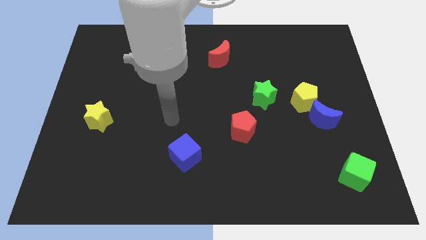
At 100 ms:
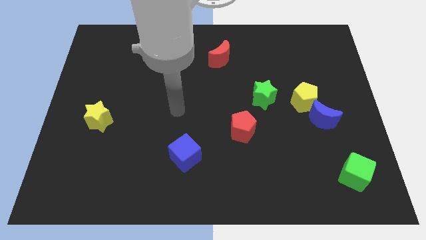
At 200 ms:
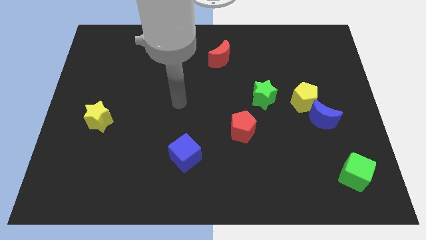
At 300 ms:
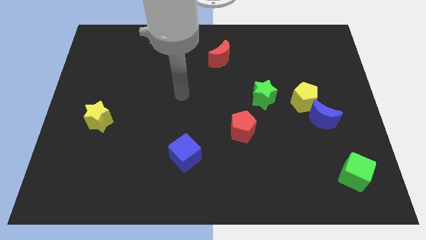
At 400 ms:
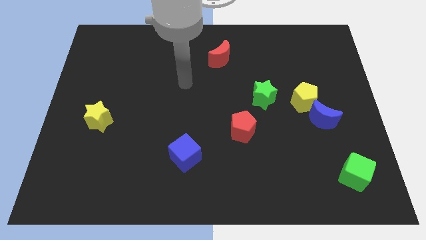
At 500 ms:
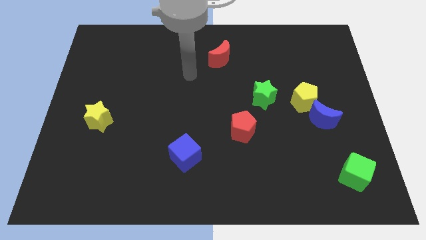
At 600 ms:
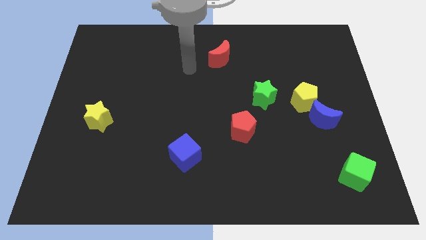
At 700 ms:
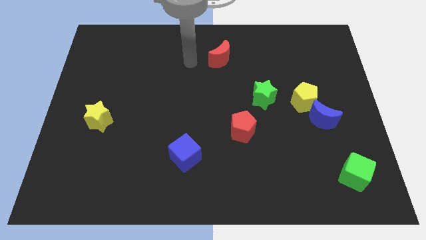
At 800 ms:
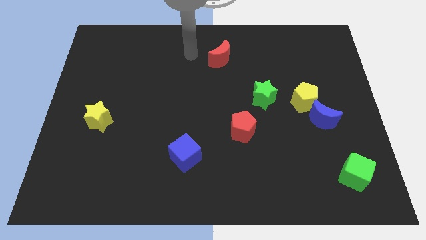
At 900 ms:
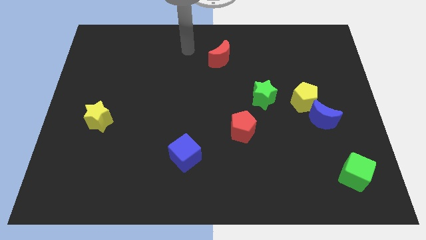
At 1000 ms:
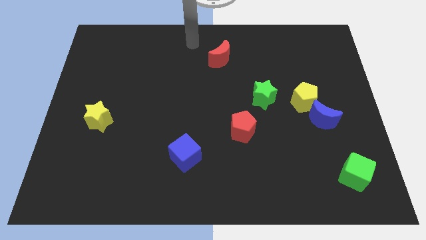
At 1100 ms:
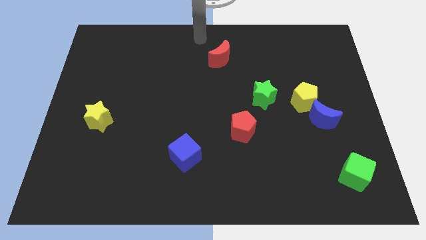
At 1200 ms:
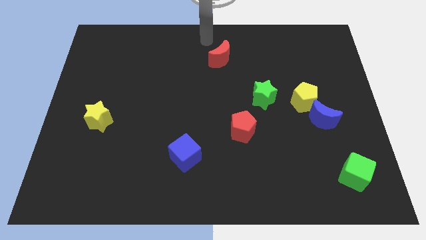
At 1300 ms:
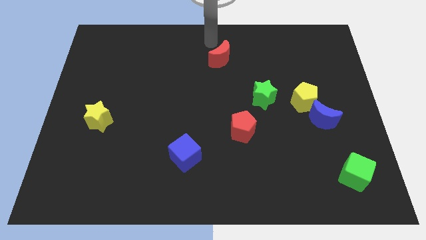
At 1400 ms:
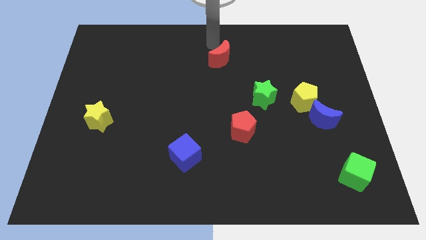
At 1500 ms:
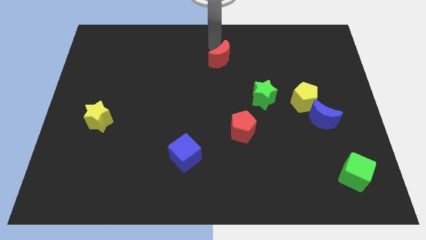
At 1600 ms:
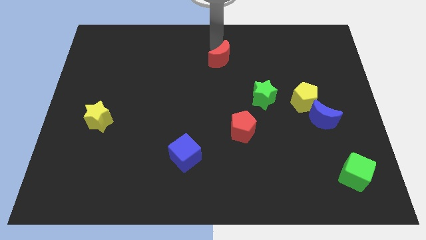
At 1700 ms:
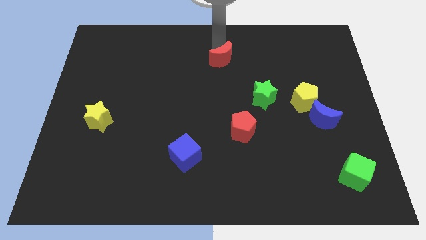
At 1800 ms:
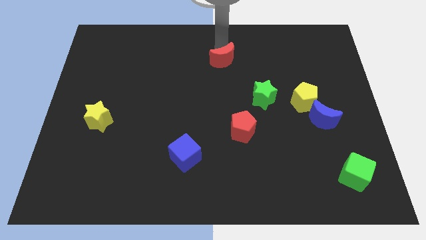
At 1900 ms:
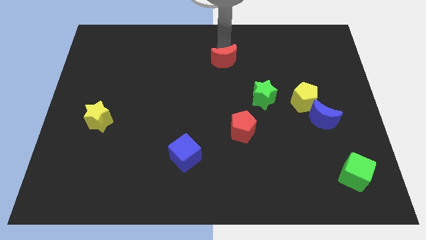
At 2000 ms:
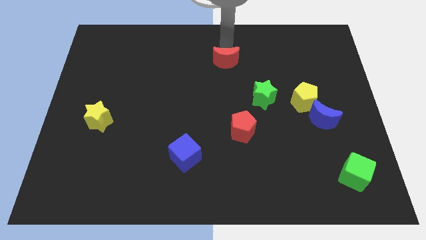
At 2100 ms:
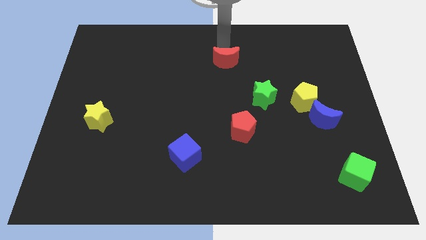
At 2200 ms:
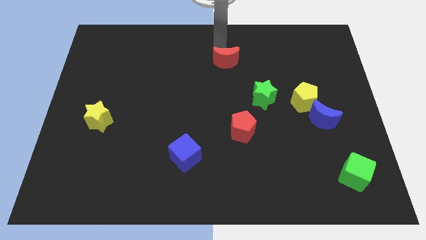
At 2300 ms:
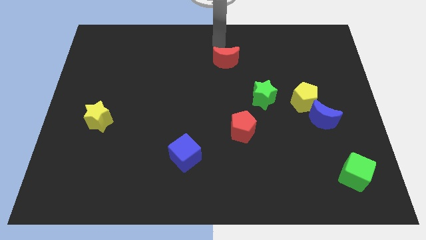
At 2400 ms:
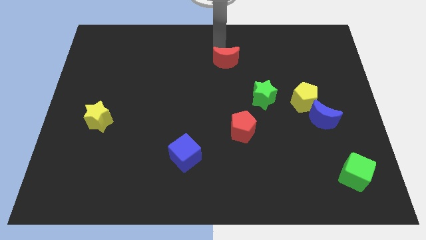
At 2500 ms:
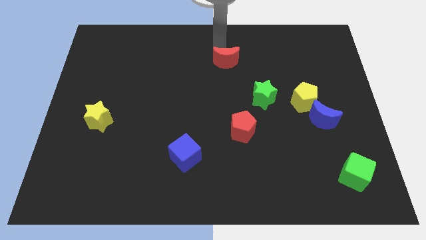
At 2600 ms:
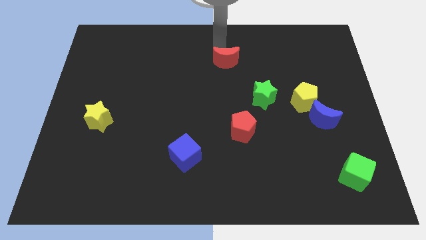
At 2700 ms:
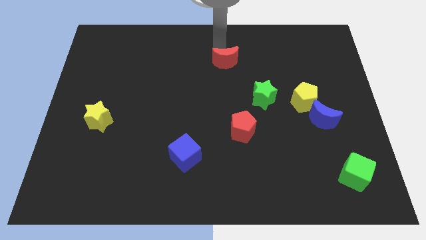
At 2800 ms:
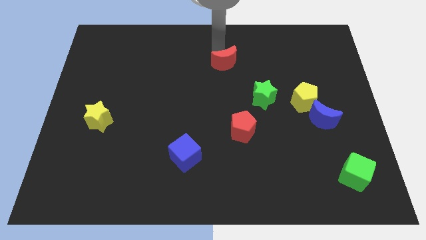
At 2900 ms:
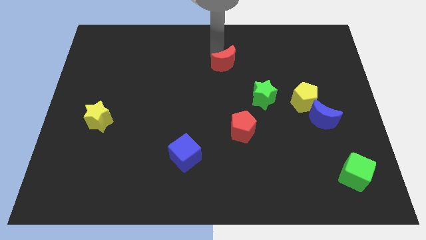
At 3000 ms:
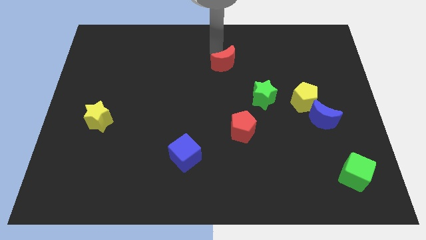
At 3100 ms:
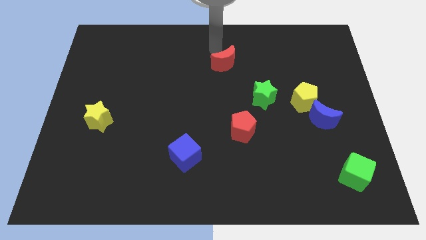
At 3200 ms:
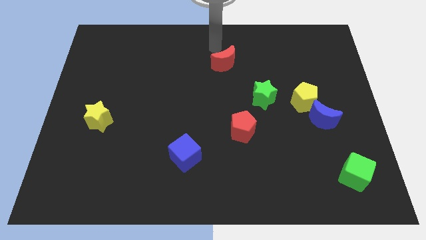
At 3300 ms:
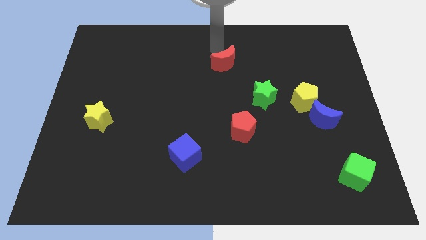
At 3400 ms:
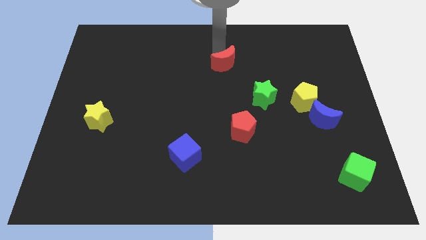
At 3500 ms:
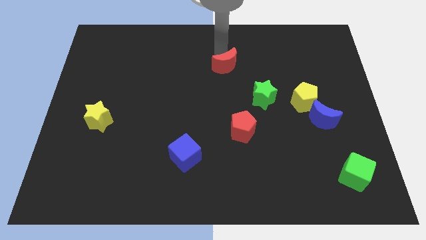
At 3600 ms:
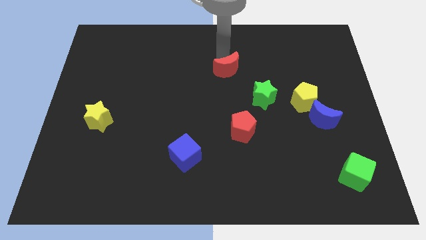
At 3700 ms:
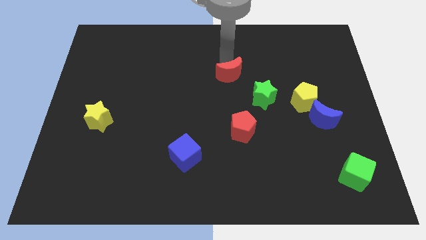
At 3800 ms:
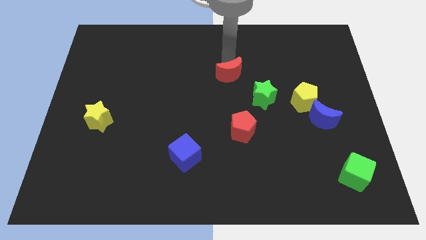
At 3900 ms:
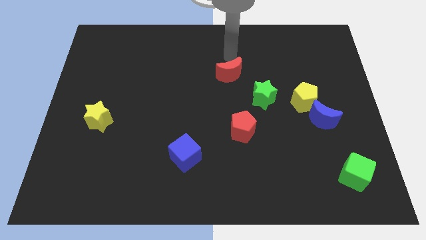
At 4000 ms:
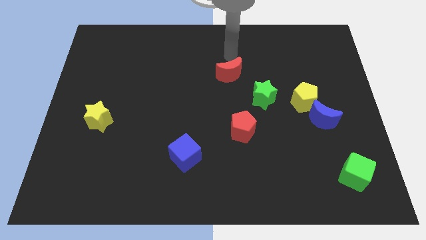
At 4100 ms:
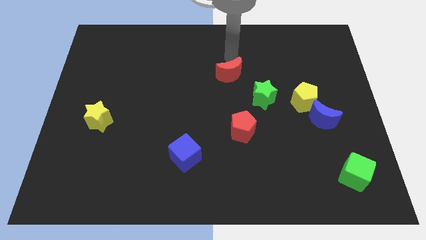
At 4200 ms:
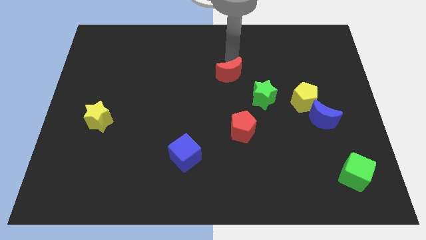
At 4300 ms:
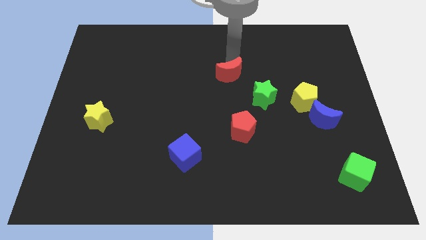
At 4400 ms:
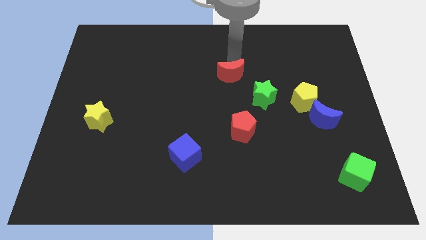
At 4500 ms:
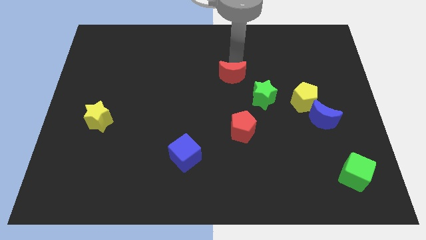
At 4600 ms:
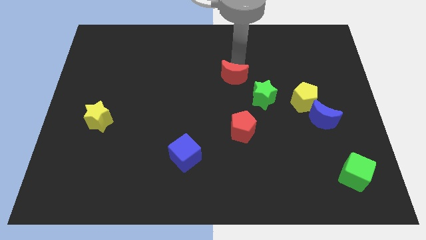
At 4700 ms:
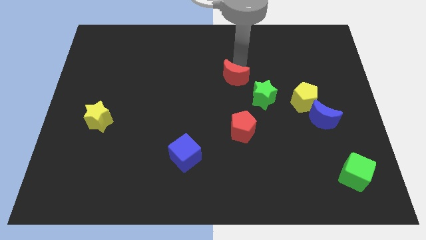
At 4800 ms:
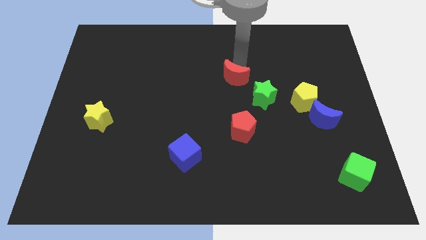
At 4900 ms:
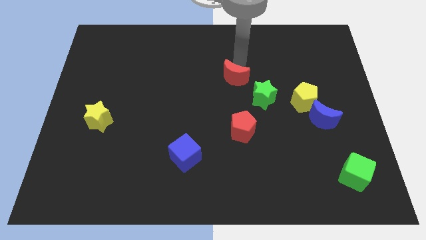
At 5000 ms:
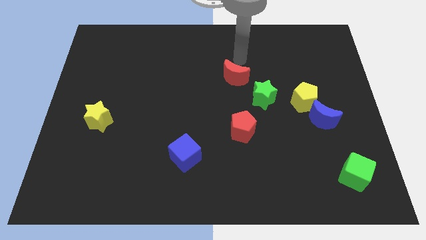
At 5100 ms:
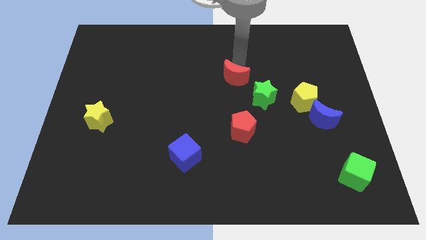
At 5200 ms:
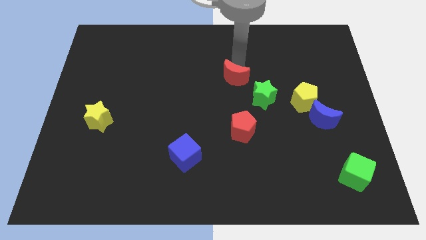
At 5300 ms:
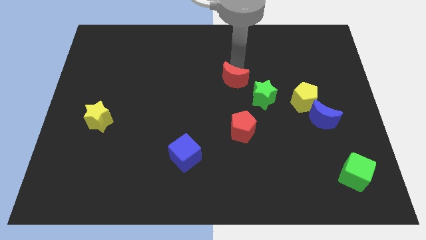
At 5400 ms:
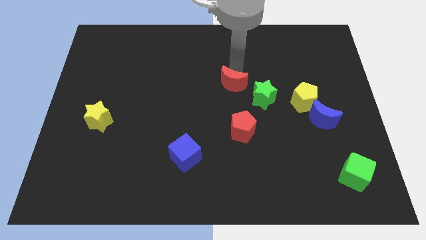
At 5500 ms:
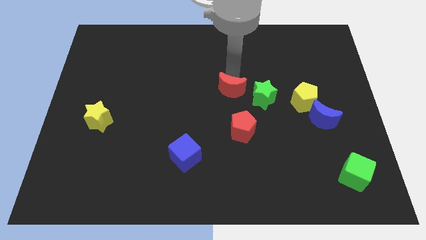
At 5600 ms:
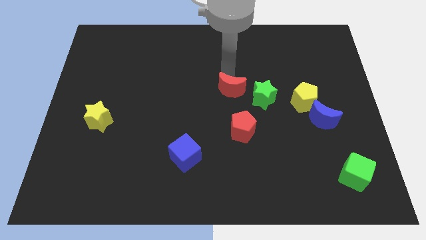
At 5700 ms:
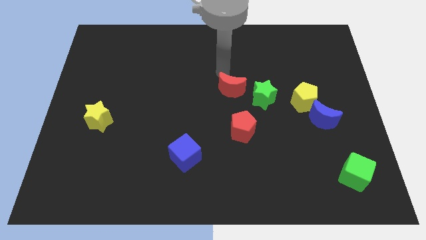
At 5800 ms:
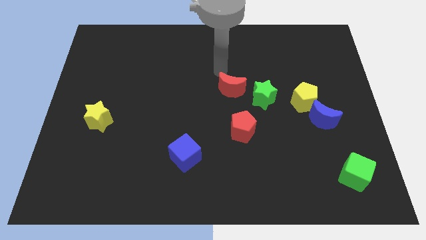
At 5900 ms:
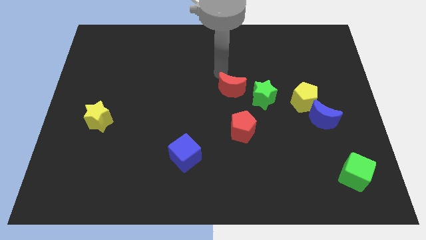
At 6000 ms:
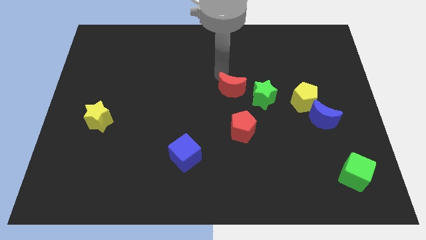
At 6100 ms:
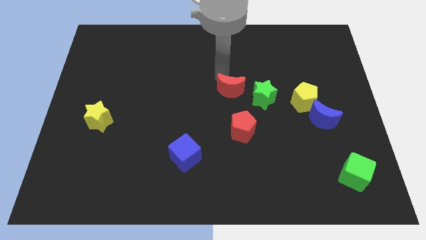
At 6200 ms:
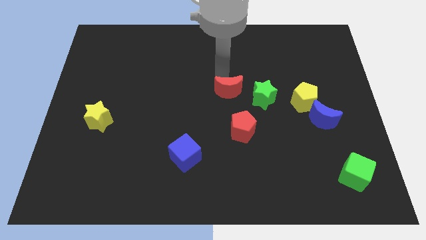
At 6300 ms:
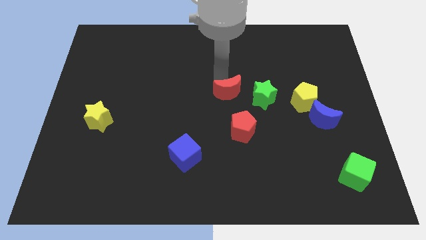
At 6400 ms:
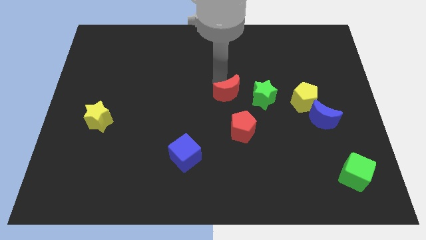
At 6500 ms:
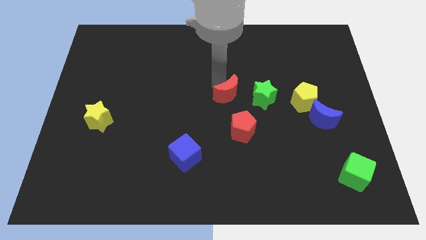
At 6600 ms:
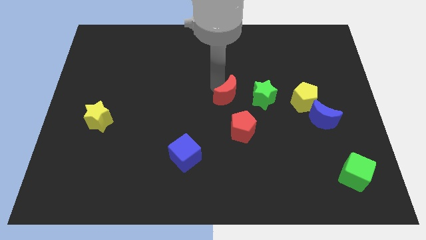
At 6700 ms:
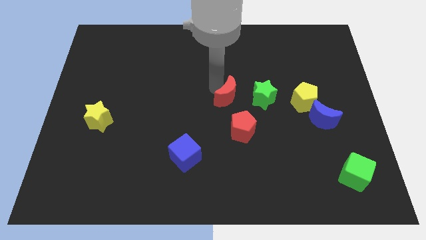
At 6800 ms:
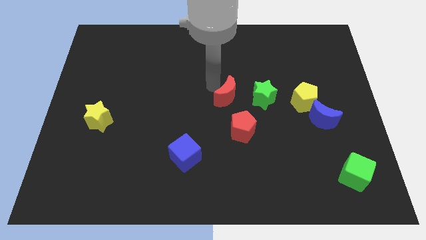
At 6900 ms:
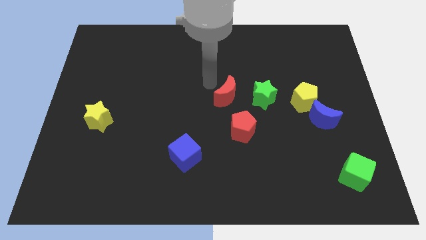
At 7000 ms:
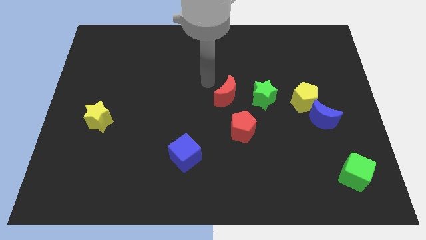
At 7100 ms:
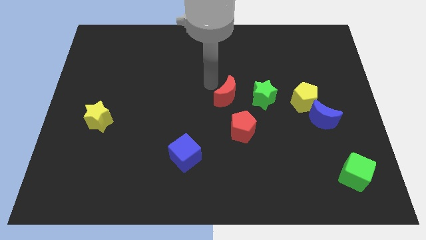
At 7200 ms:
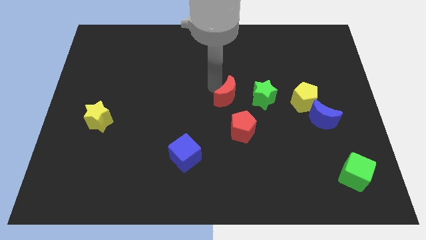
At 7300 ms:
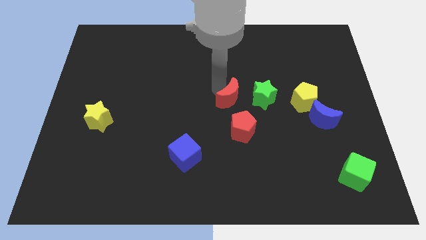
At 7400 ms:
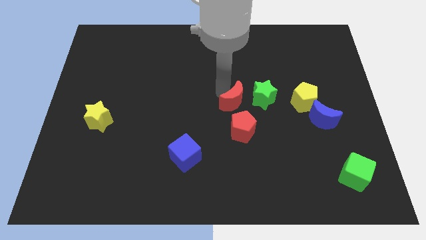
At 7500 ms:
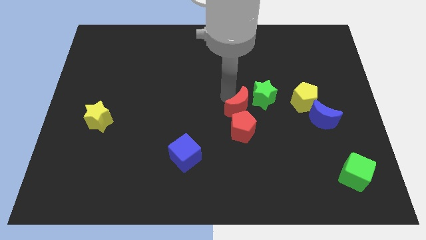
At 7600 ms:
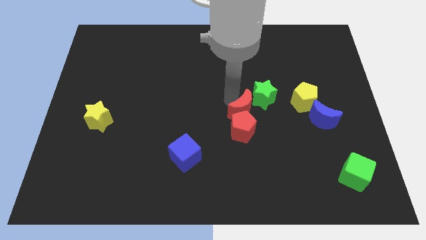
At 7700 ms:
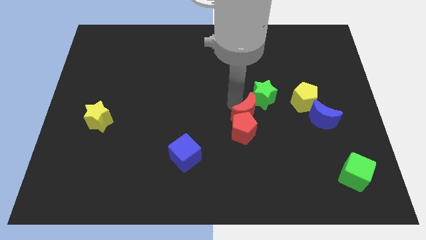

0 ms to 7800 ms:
slide the red moon to the bottom side of the green star
